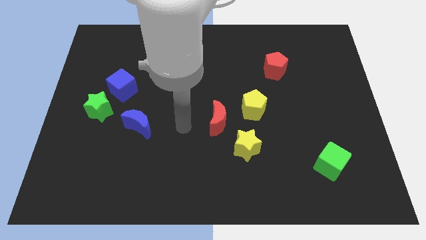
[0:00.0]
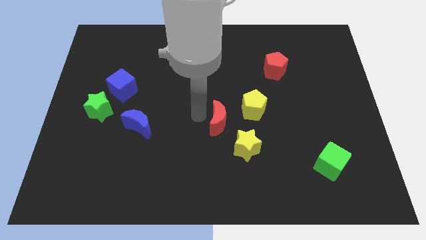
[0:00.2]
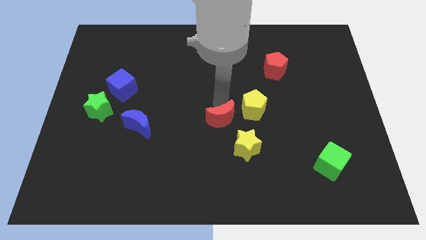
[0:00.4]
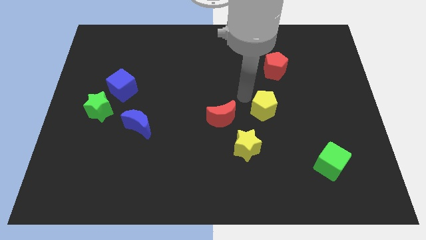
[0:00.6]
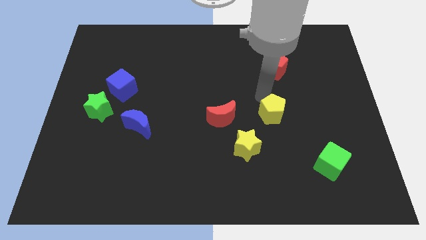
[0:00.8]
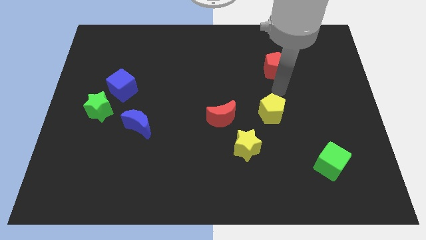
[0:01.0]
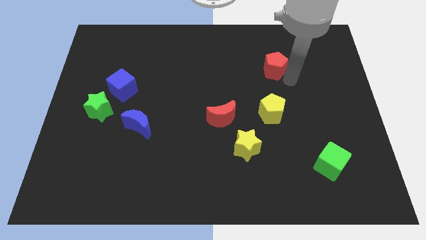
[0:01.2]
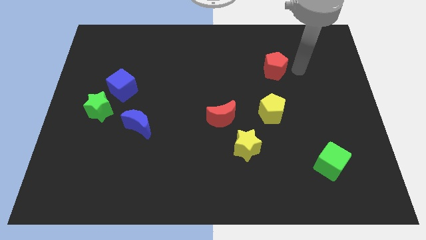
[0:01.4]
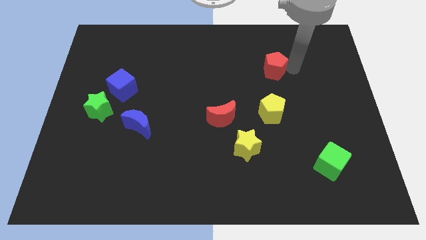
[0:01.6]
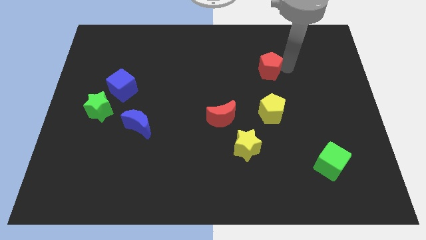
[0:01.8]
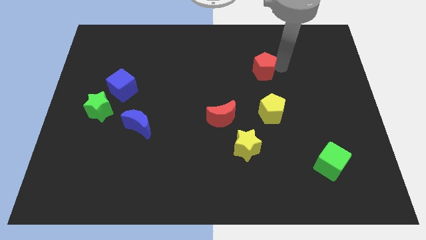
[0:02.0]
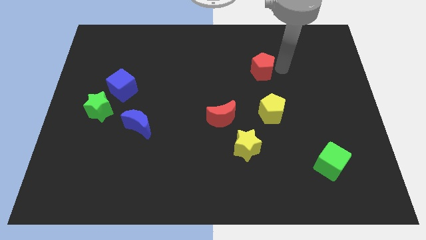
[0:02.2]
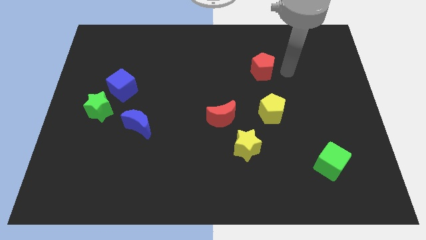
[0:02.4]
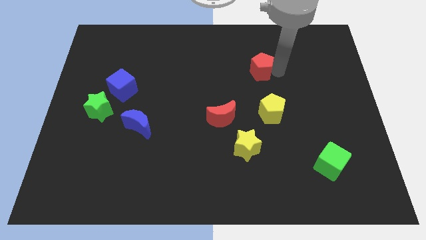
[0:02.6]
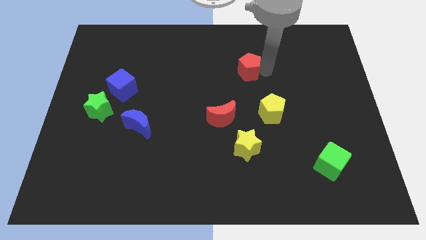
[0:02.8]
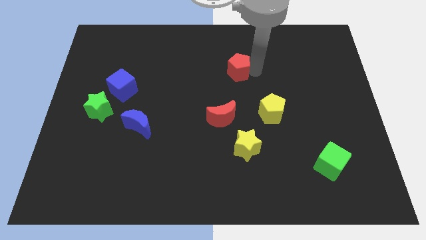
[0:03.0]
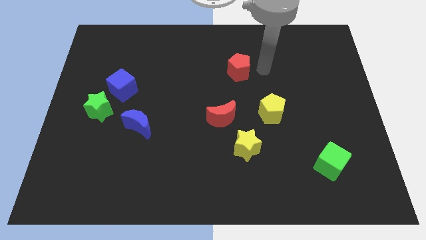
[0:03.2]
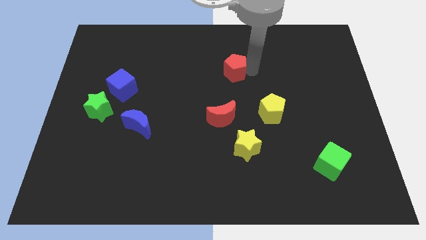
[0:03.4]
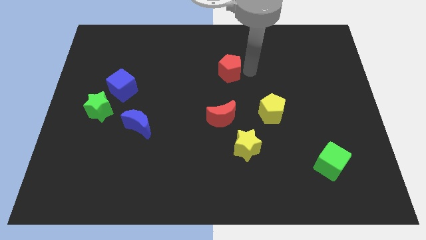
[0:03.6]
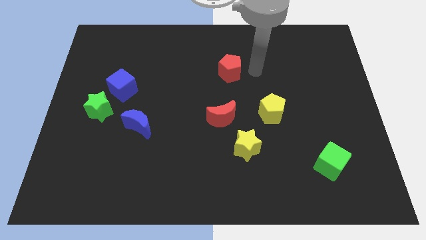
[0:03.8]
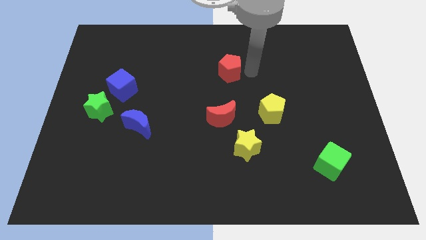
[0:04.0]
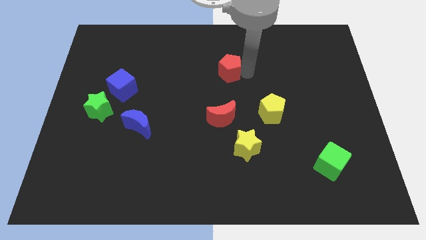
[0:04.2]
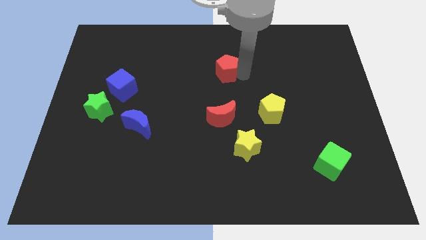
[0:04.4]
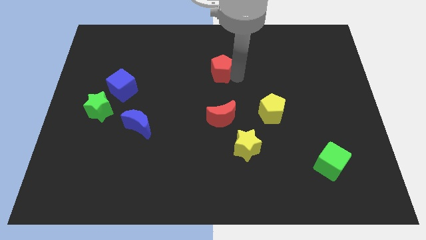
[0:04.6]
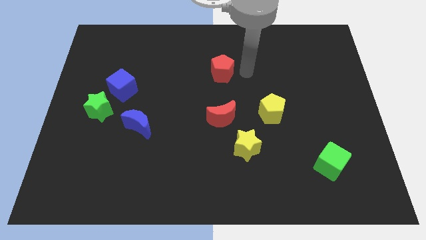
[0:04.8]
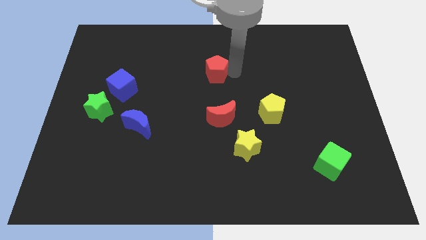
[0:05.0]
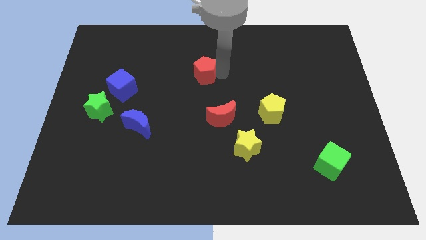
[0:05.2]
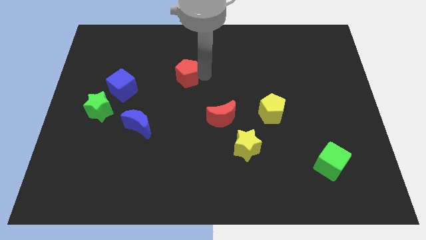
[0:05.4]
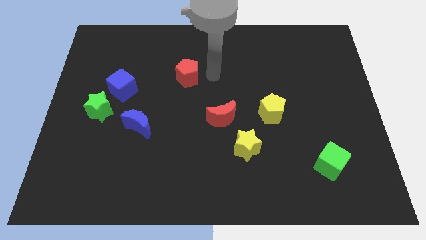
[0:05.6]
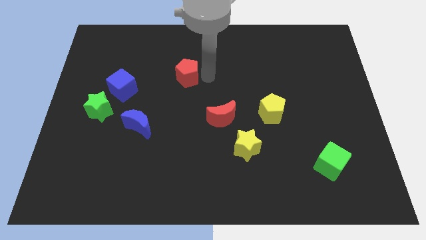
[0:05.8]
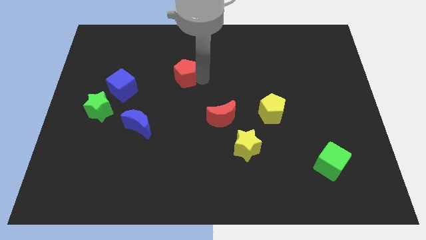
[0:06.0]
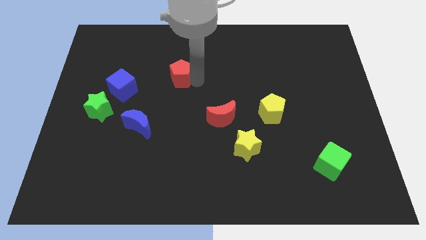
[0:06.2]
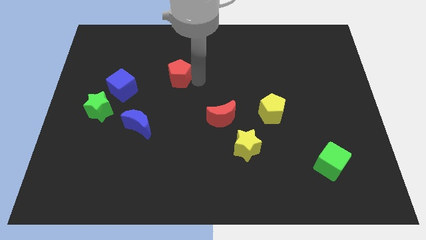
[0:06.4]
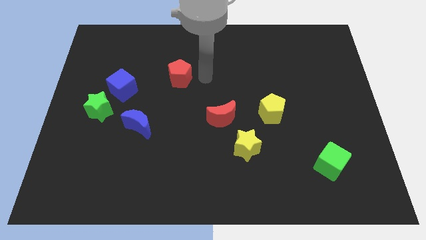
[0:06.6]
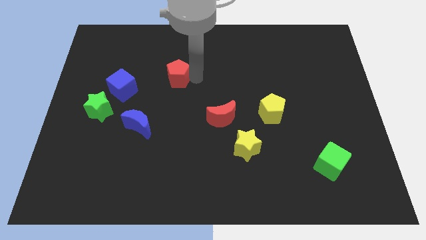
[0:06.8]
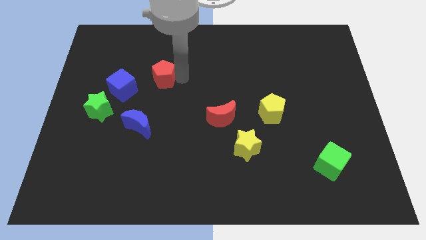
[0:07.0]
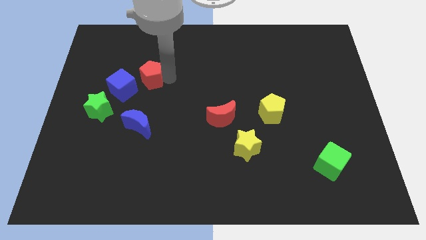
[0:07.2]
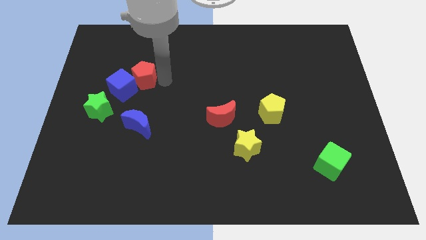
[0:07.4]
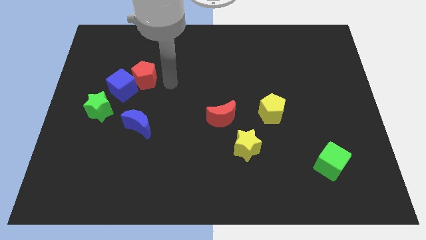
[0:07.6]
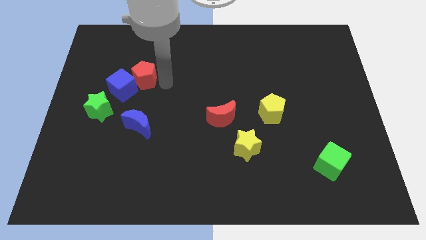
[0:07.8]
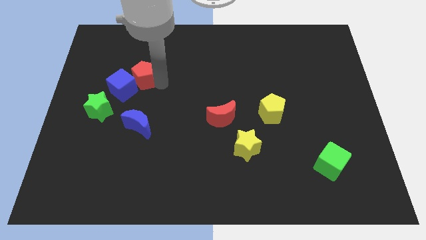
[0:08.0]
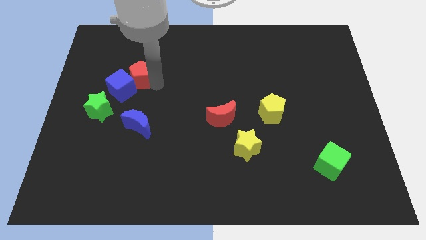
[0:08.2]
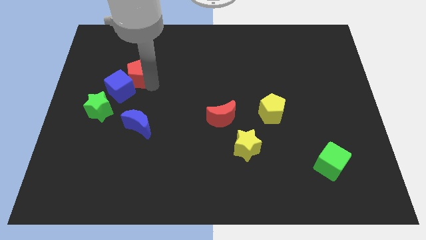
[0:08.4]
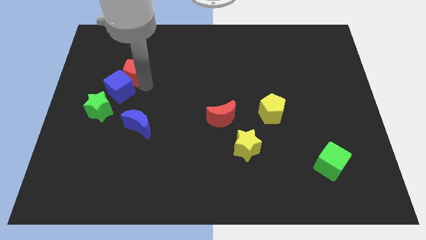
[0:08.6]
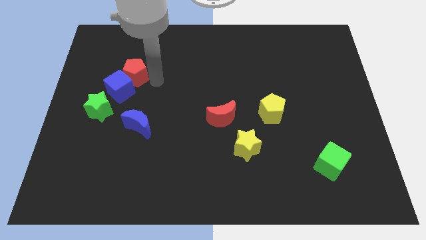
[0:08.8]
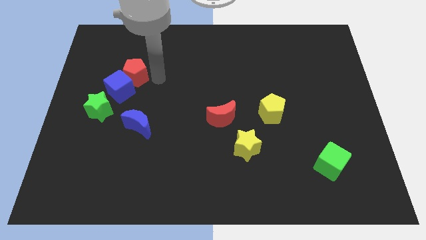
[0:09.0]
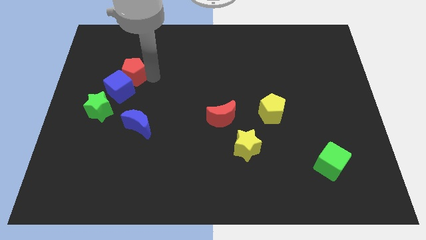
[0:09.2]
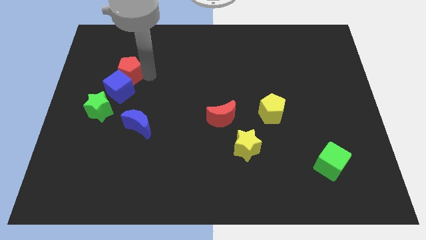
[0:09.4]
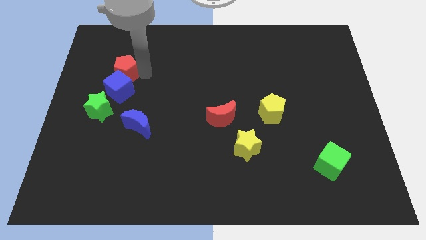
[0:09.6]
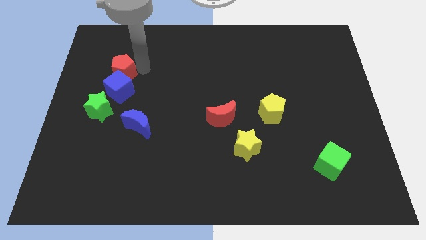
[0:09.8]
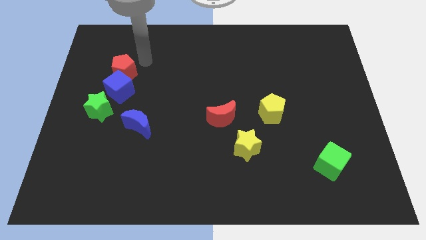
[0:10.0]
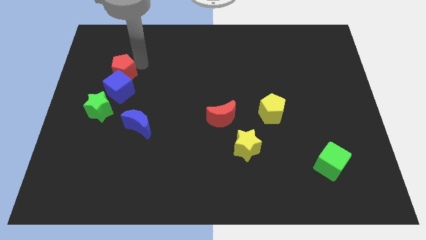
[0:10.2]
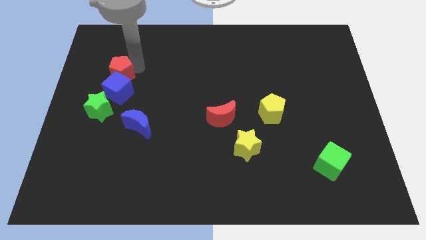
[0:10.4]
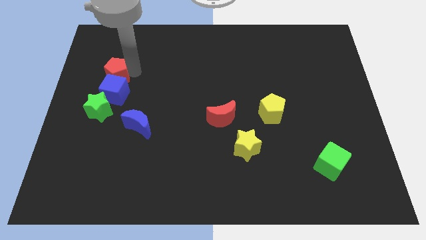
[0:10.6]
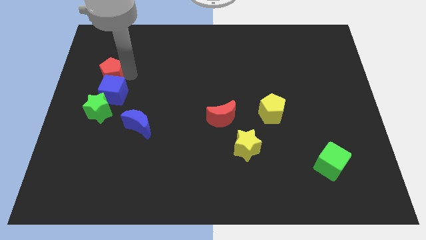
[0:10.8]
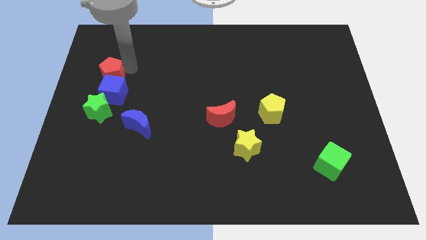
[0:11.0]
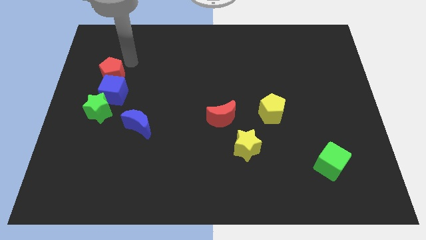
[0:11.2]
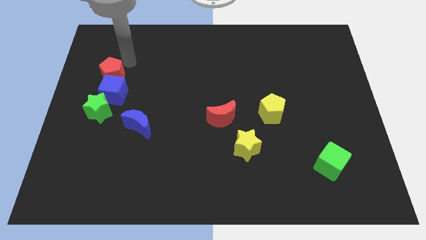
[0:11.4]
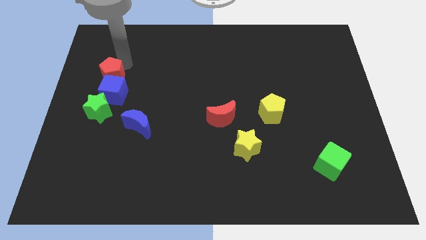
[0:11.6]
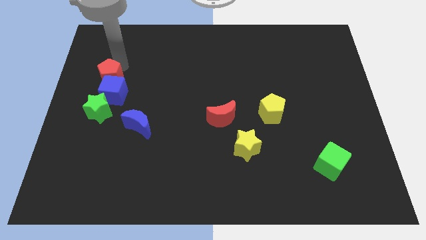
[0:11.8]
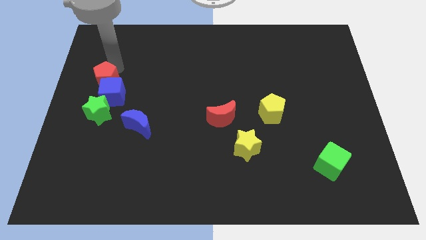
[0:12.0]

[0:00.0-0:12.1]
move the red pentagon to the left side of the board
